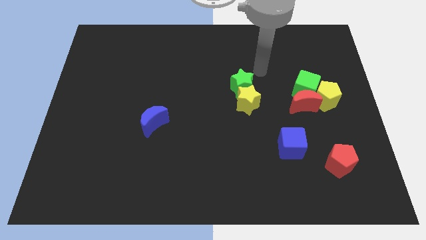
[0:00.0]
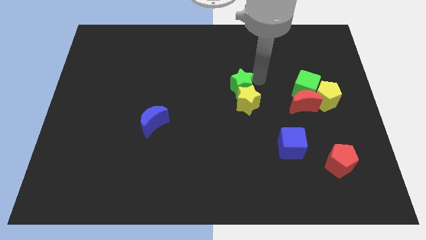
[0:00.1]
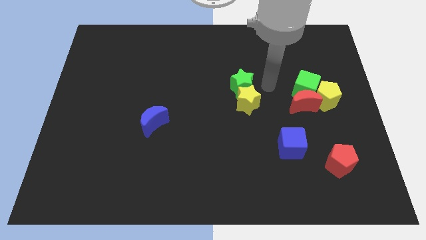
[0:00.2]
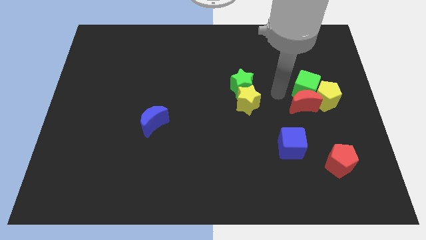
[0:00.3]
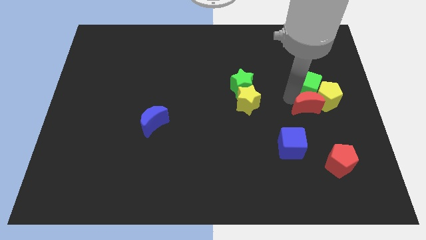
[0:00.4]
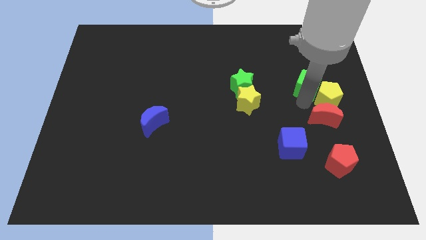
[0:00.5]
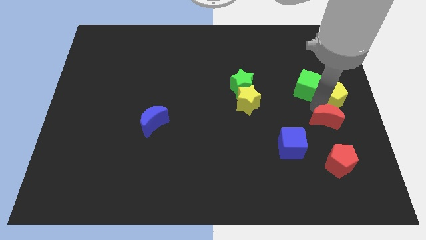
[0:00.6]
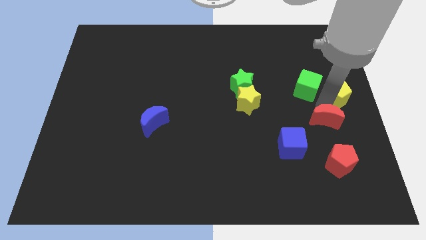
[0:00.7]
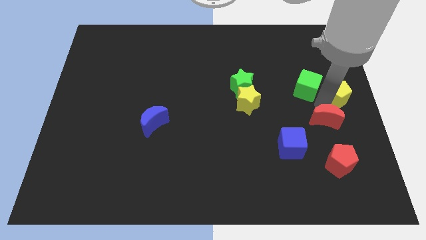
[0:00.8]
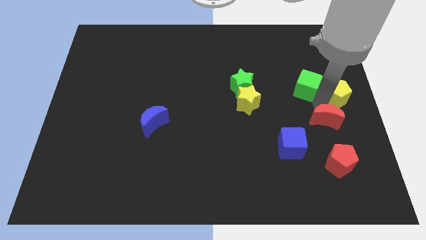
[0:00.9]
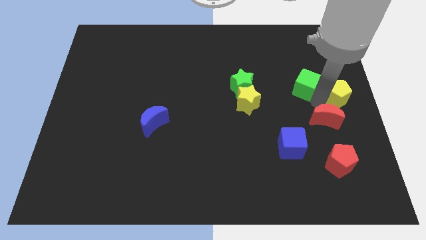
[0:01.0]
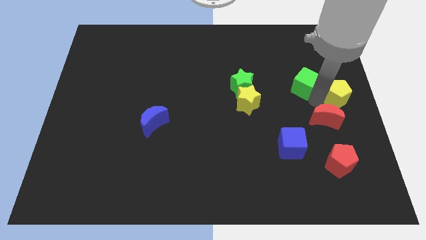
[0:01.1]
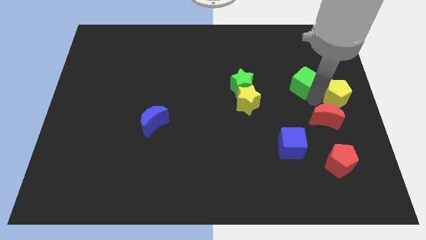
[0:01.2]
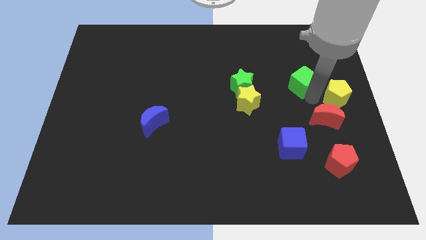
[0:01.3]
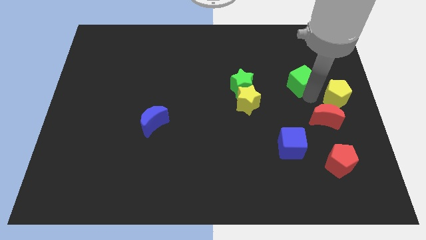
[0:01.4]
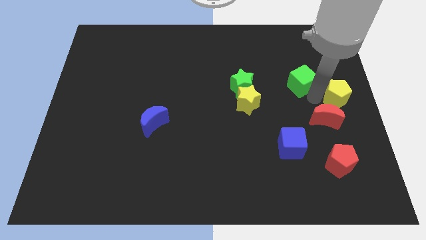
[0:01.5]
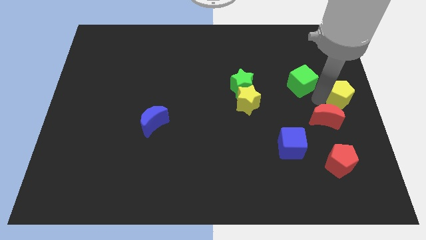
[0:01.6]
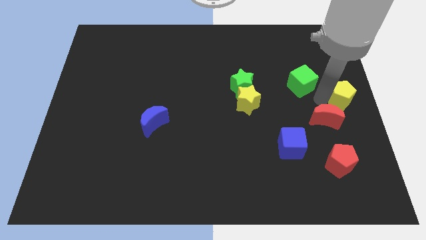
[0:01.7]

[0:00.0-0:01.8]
separate the green cube from the red moon and yellow pentagon

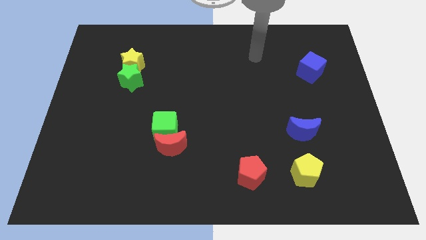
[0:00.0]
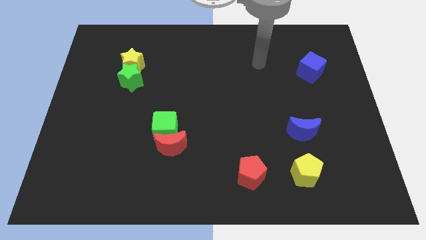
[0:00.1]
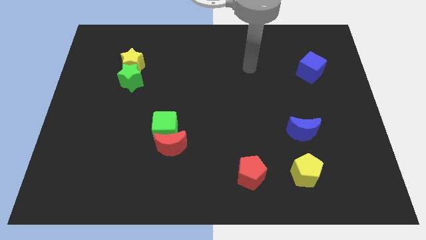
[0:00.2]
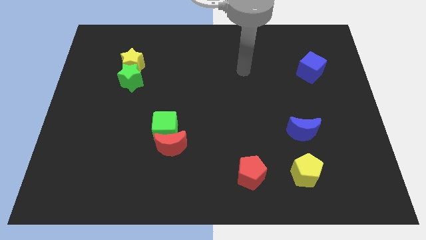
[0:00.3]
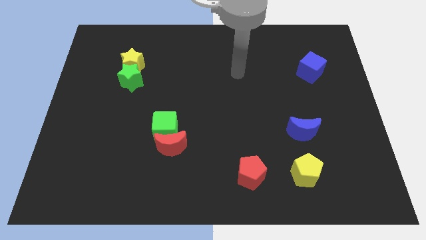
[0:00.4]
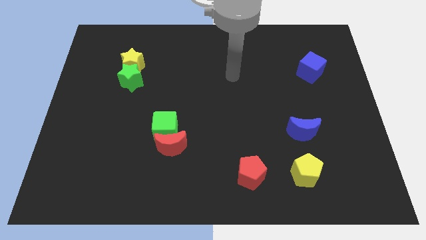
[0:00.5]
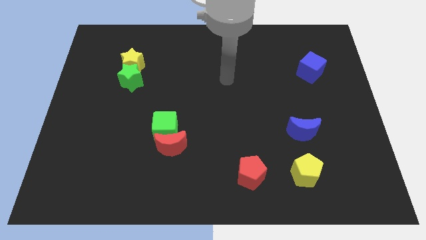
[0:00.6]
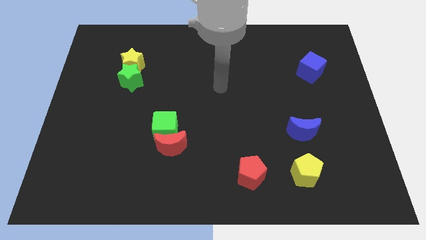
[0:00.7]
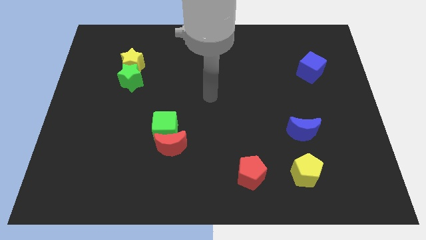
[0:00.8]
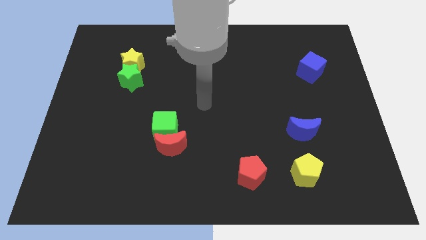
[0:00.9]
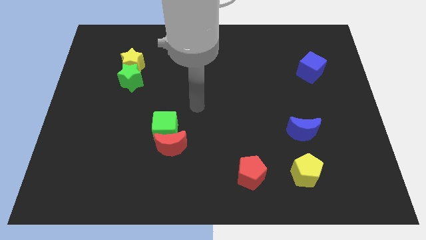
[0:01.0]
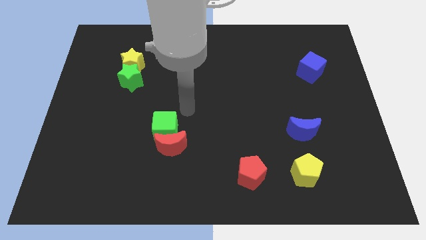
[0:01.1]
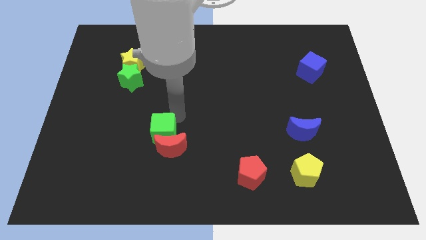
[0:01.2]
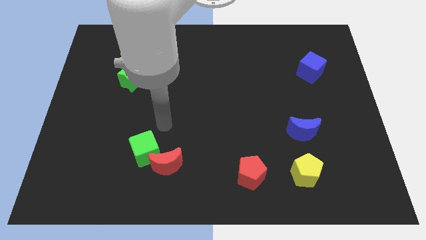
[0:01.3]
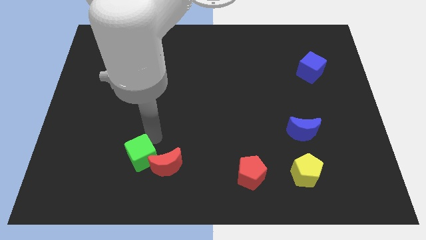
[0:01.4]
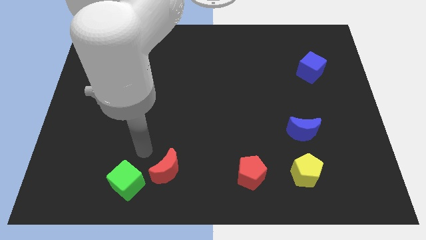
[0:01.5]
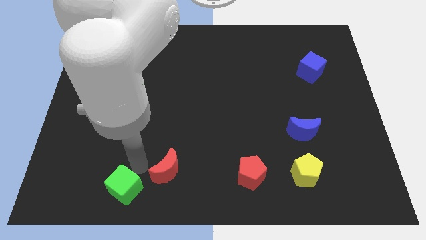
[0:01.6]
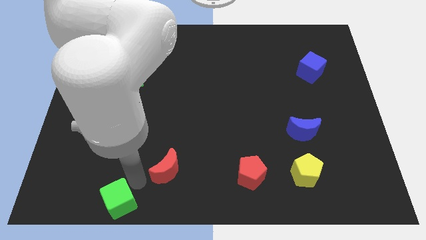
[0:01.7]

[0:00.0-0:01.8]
separate the red moon from the green cube

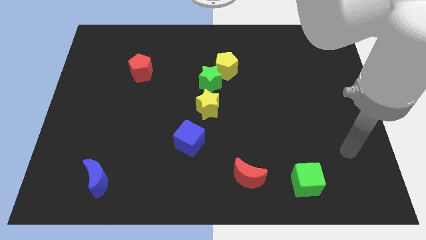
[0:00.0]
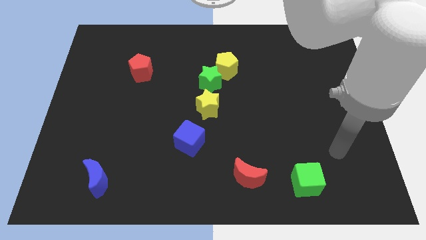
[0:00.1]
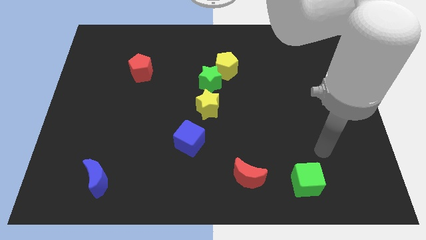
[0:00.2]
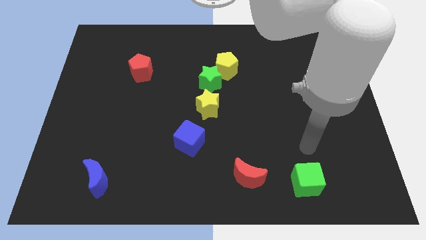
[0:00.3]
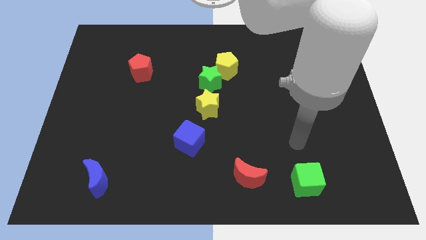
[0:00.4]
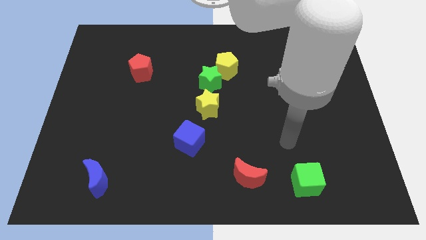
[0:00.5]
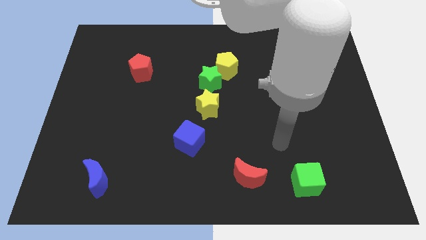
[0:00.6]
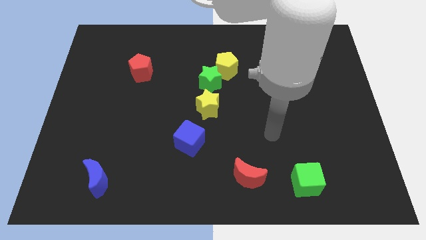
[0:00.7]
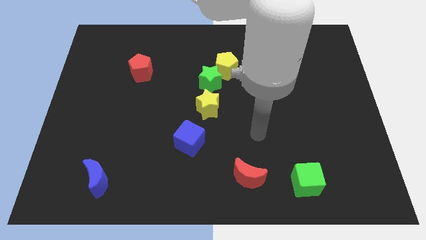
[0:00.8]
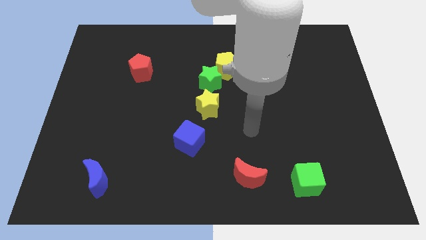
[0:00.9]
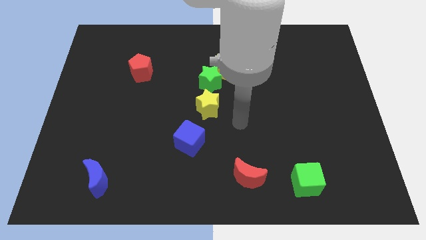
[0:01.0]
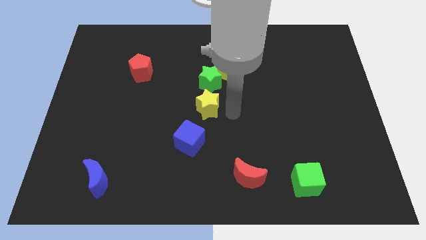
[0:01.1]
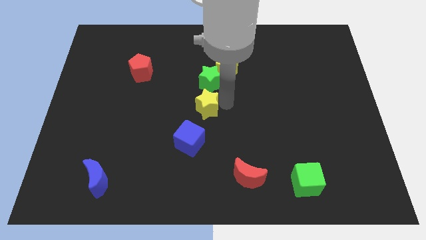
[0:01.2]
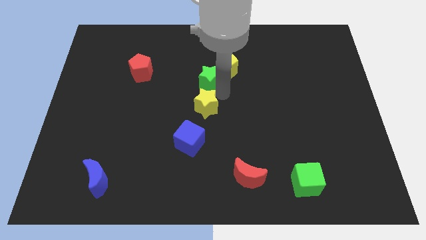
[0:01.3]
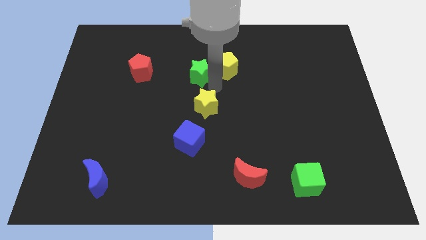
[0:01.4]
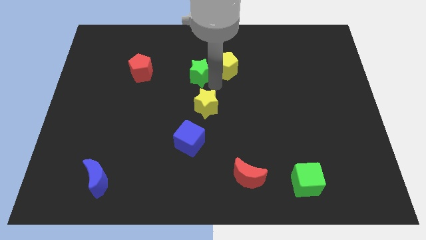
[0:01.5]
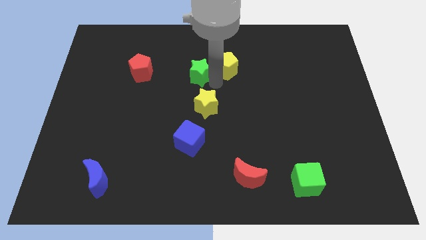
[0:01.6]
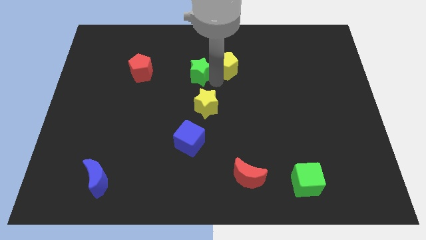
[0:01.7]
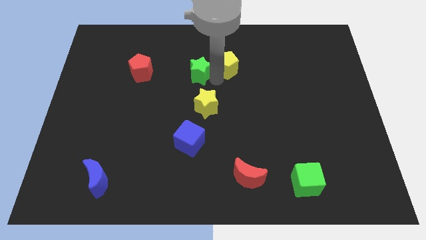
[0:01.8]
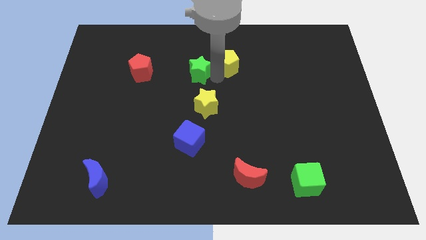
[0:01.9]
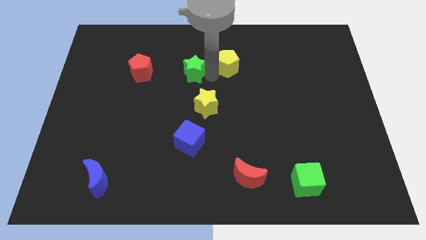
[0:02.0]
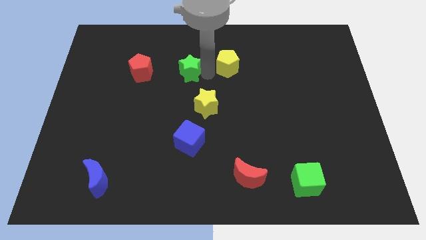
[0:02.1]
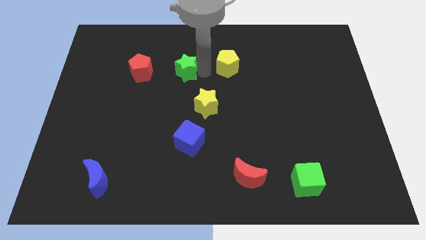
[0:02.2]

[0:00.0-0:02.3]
move the yellow pentagon away from the green star

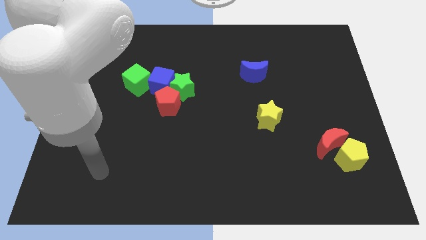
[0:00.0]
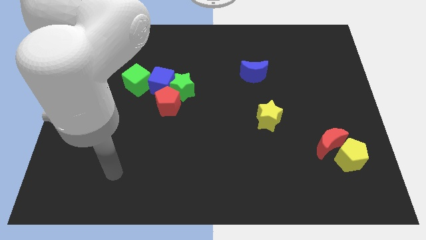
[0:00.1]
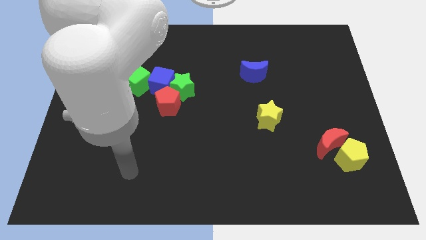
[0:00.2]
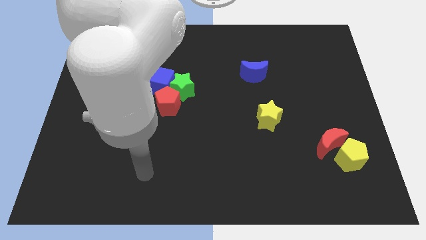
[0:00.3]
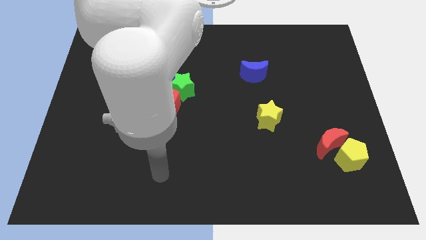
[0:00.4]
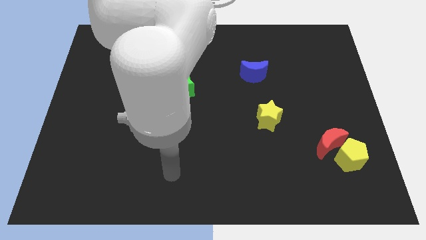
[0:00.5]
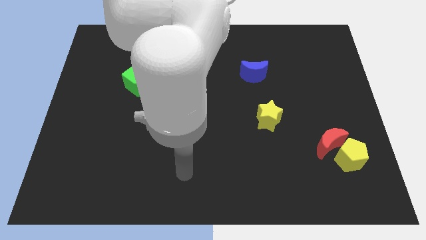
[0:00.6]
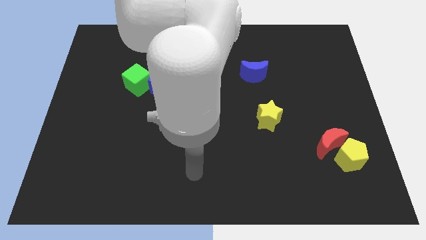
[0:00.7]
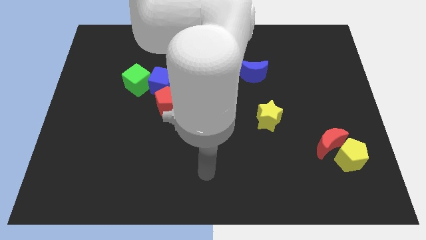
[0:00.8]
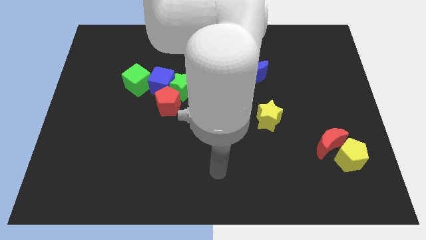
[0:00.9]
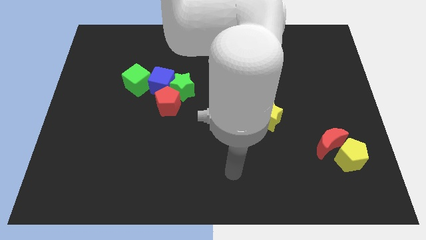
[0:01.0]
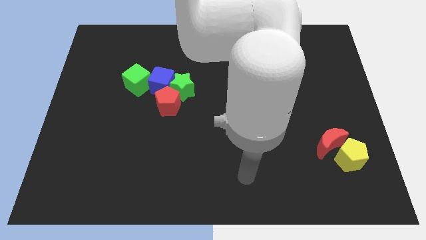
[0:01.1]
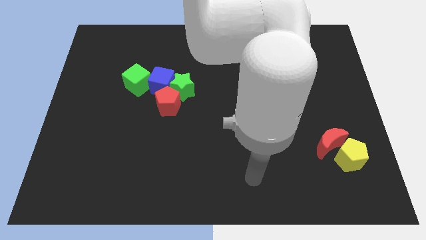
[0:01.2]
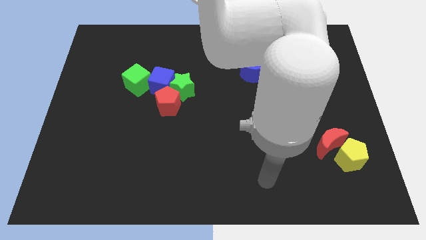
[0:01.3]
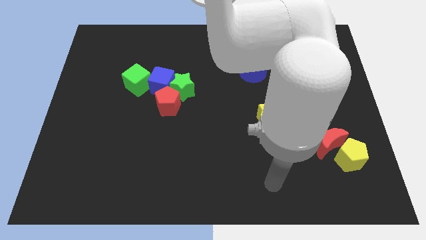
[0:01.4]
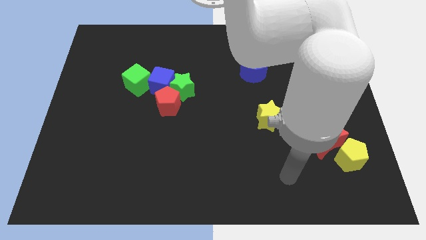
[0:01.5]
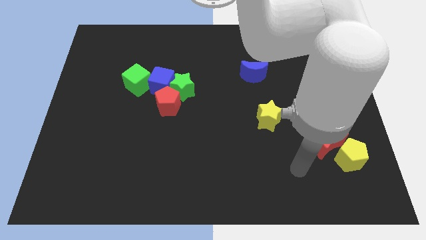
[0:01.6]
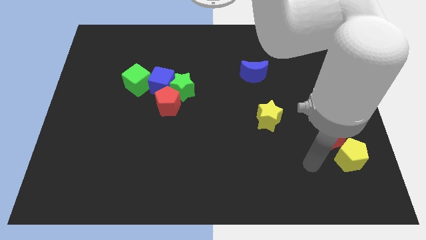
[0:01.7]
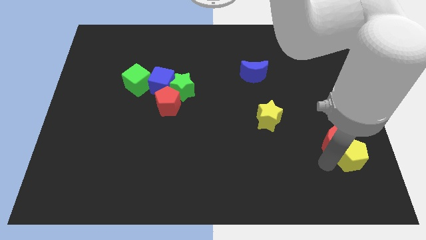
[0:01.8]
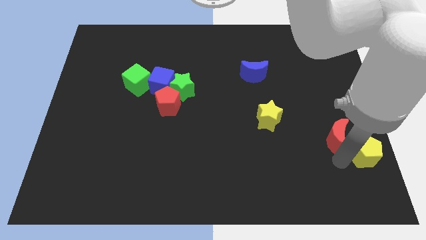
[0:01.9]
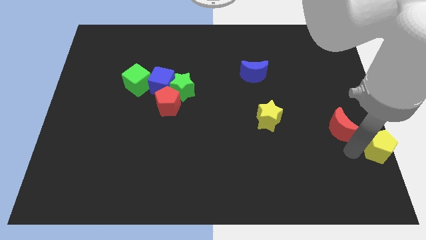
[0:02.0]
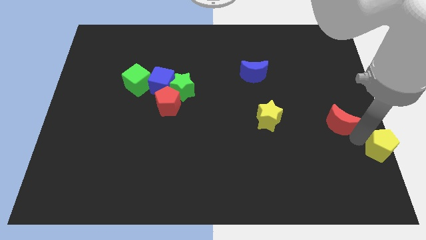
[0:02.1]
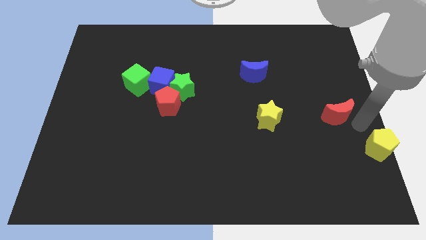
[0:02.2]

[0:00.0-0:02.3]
move the red moon away from the yellow pentagon

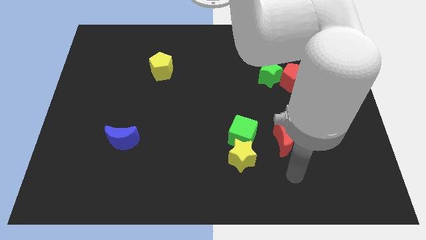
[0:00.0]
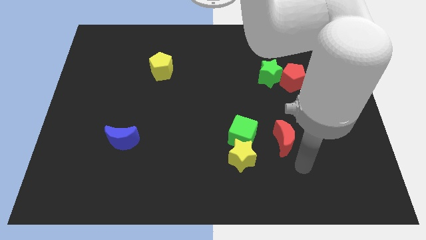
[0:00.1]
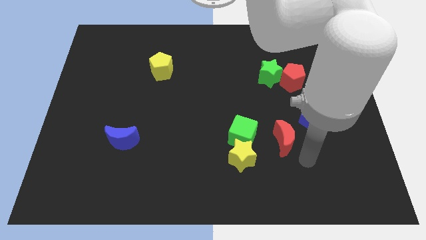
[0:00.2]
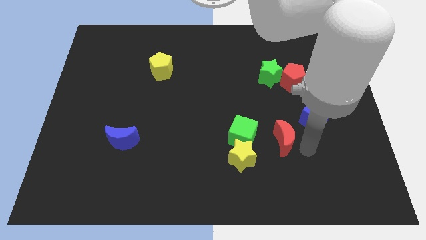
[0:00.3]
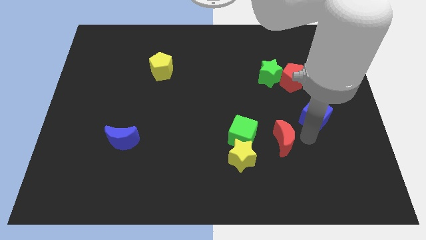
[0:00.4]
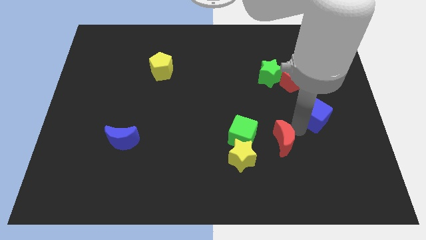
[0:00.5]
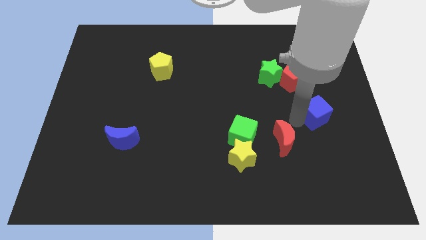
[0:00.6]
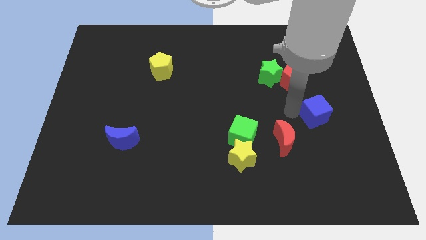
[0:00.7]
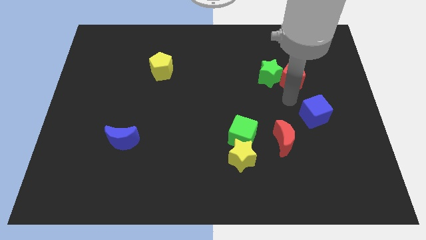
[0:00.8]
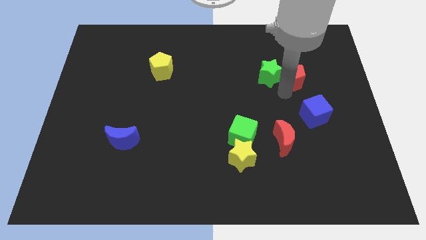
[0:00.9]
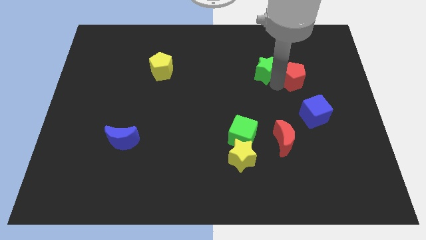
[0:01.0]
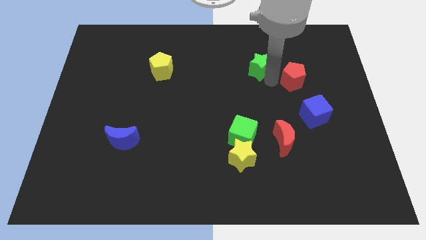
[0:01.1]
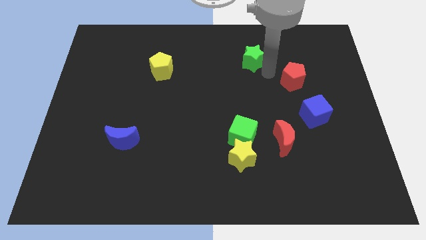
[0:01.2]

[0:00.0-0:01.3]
move the red pentagon away from the green star
